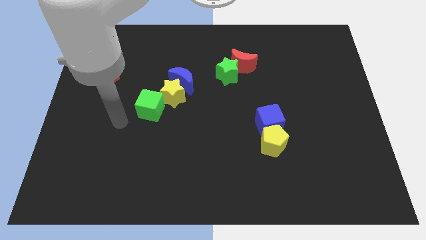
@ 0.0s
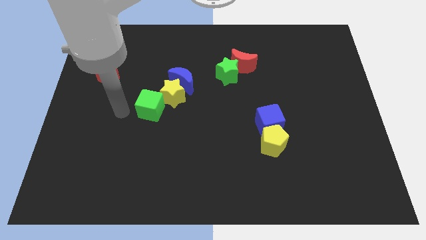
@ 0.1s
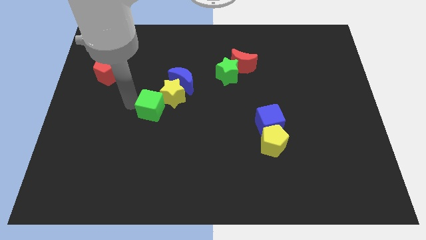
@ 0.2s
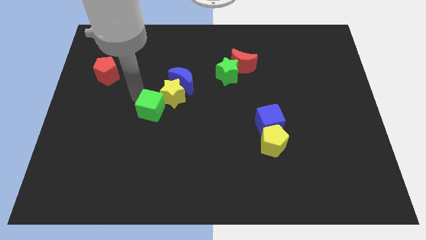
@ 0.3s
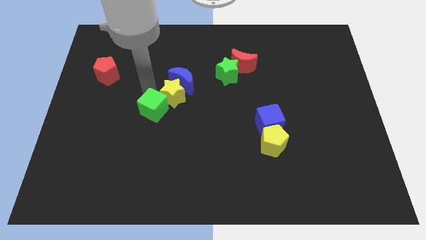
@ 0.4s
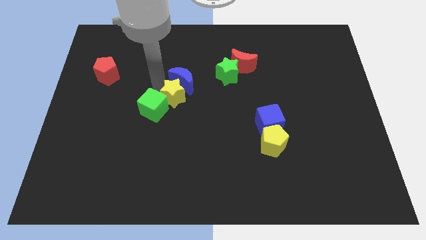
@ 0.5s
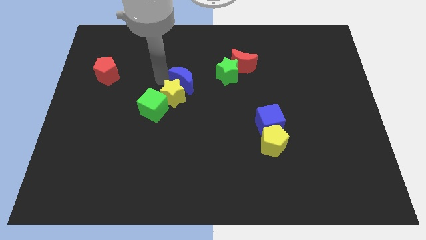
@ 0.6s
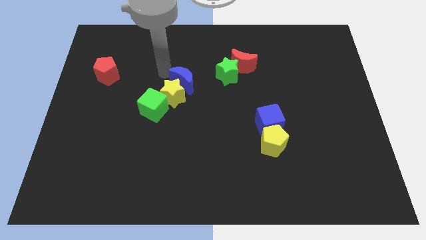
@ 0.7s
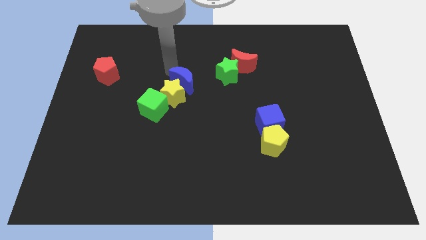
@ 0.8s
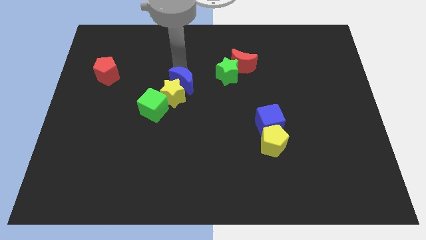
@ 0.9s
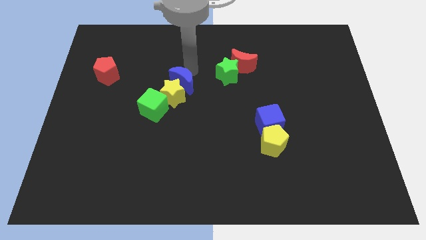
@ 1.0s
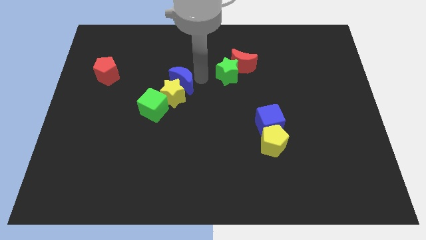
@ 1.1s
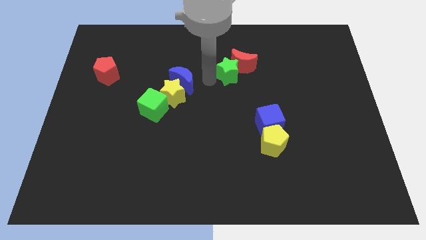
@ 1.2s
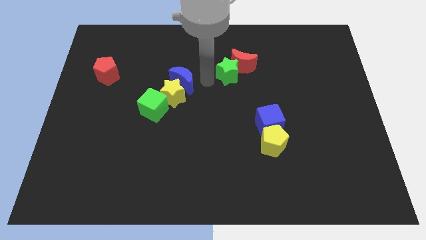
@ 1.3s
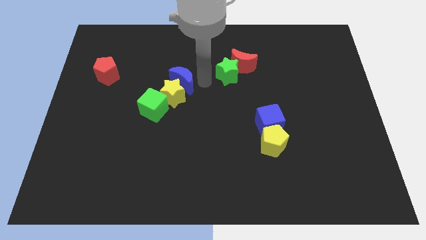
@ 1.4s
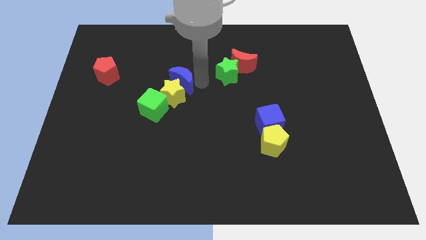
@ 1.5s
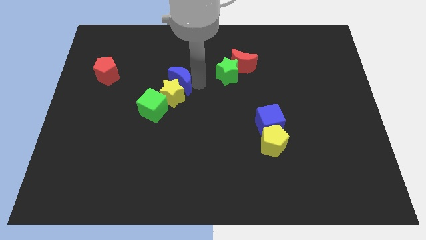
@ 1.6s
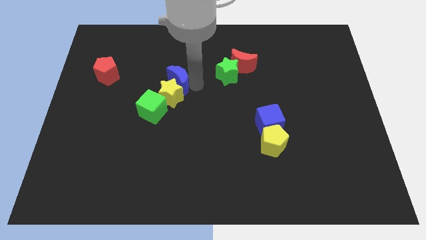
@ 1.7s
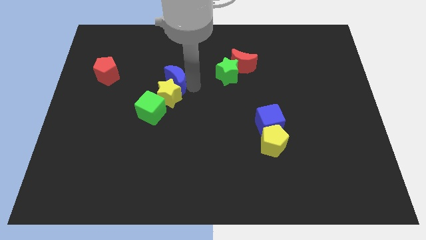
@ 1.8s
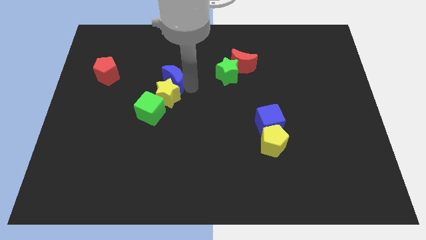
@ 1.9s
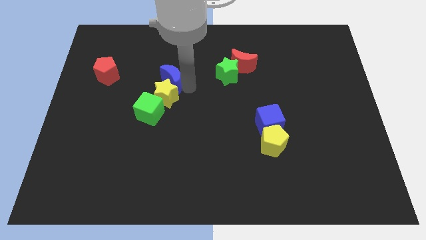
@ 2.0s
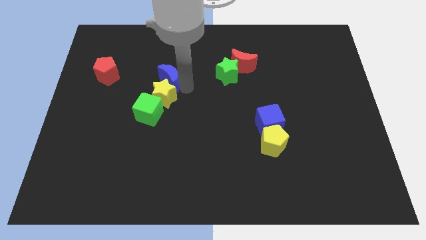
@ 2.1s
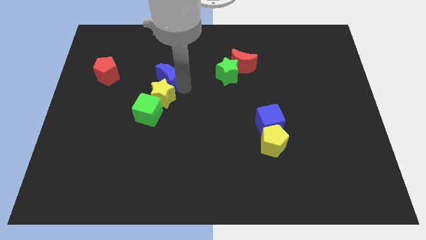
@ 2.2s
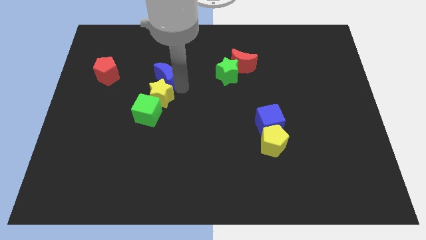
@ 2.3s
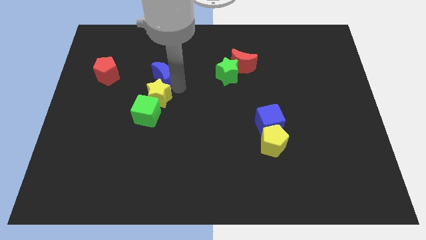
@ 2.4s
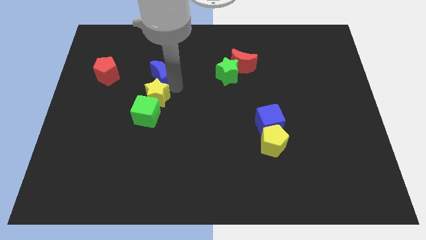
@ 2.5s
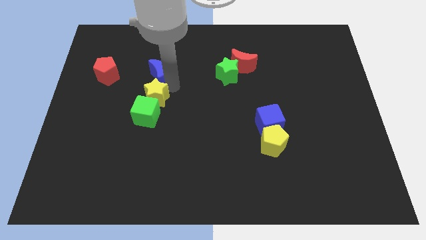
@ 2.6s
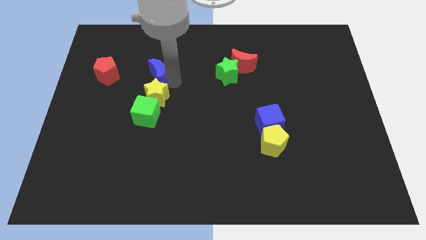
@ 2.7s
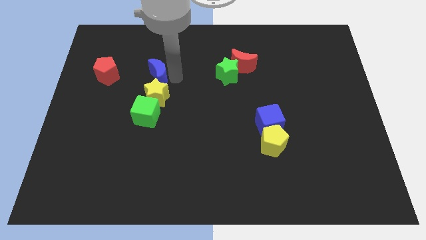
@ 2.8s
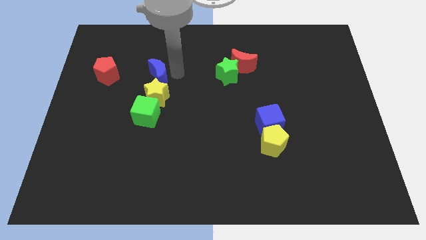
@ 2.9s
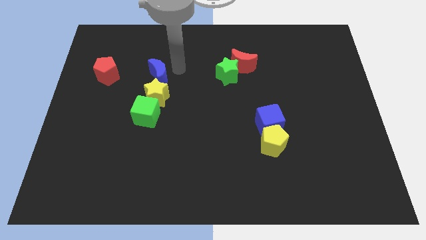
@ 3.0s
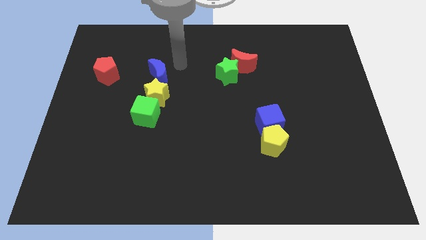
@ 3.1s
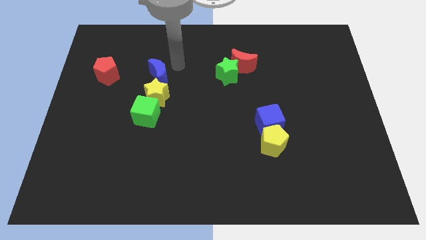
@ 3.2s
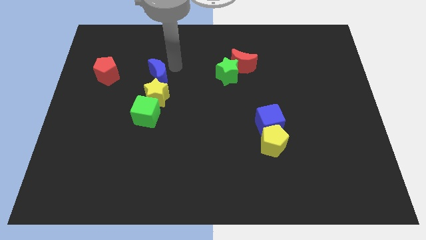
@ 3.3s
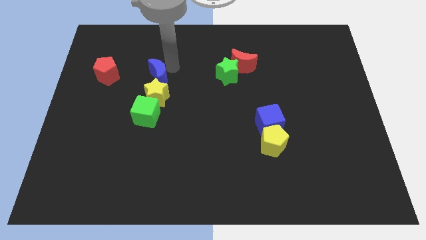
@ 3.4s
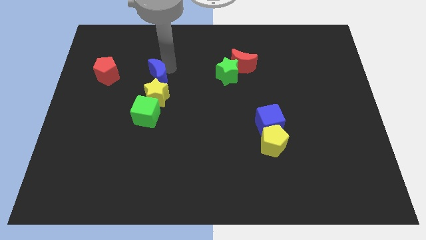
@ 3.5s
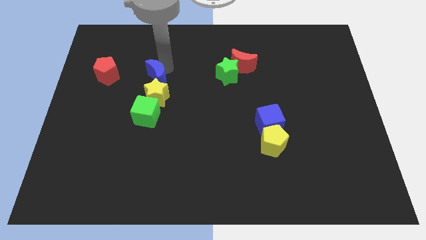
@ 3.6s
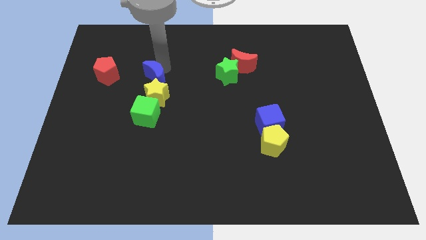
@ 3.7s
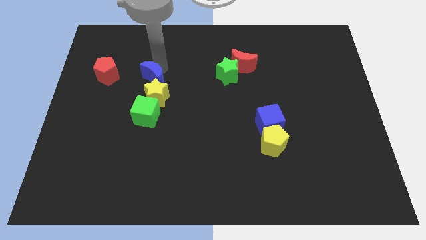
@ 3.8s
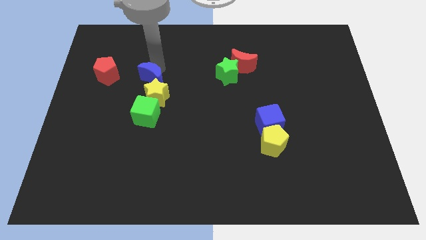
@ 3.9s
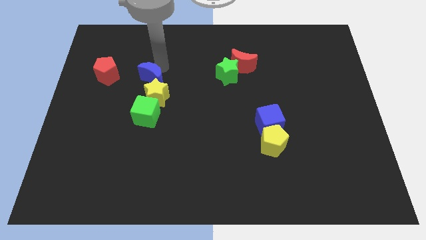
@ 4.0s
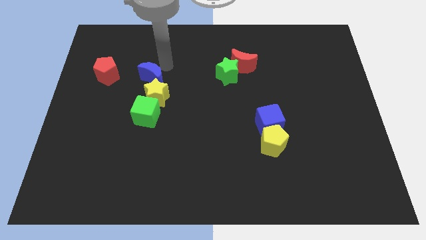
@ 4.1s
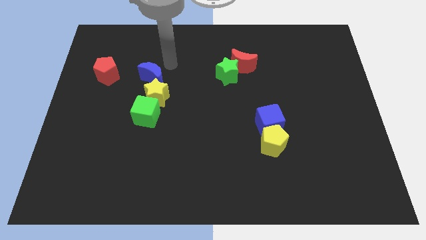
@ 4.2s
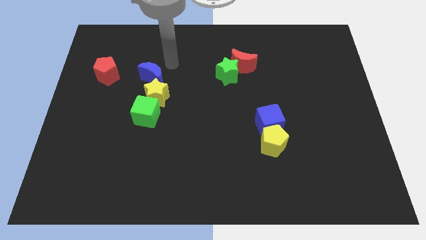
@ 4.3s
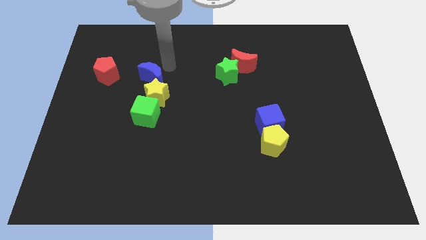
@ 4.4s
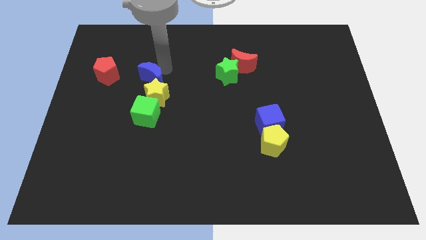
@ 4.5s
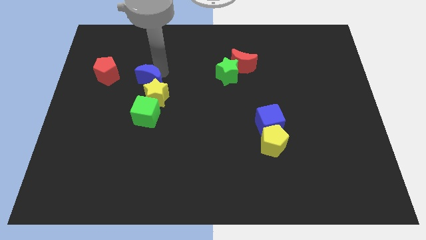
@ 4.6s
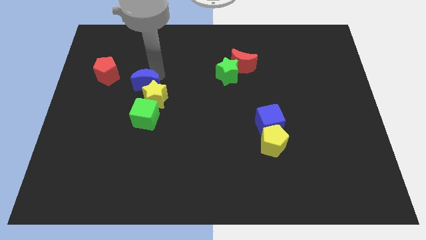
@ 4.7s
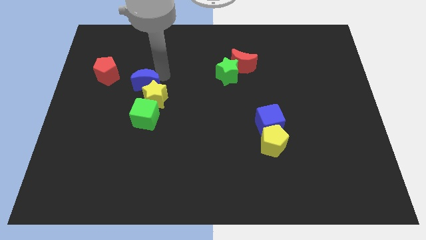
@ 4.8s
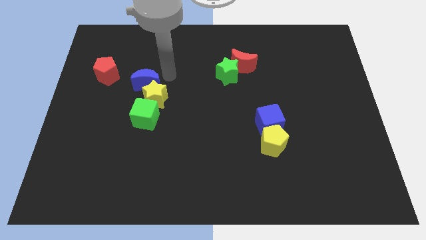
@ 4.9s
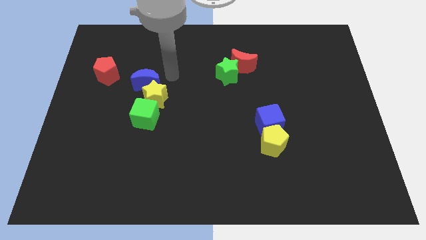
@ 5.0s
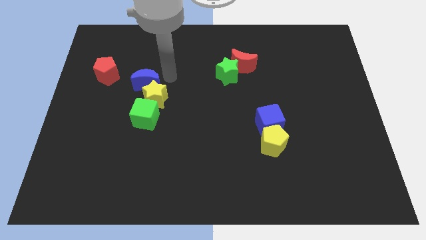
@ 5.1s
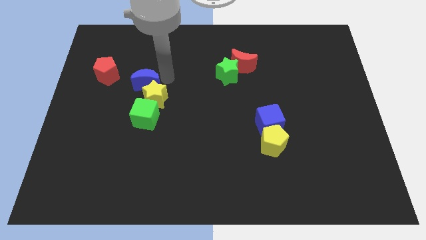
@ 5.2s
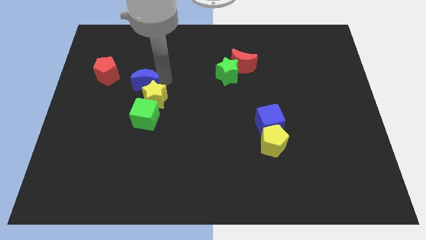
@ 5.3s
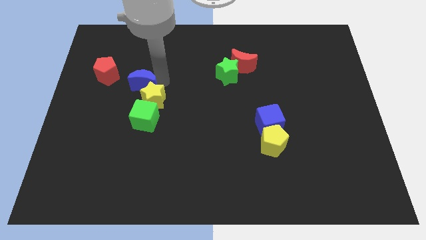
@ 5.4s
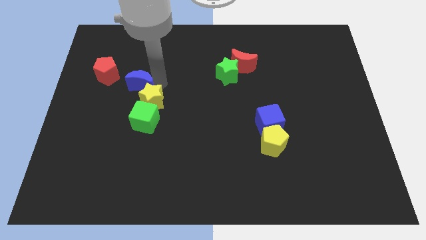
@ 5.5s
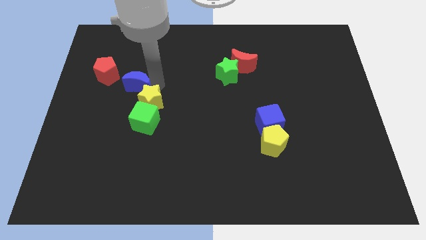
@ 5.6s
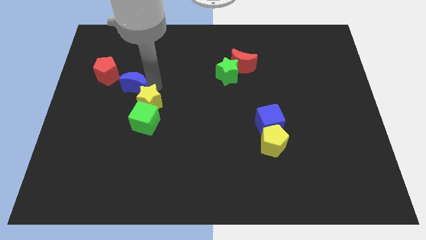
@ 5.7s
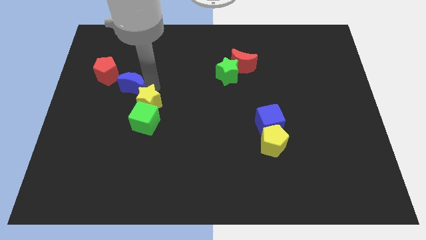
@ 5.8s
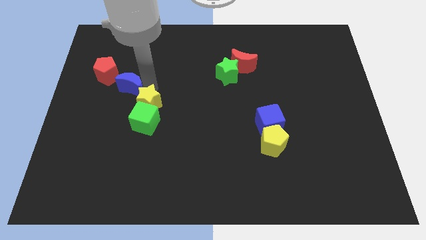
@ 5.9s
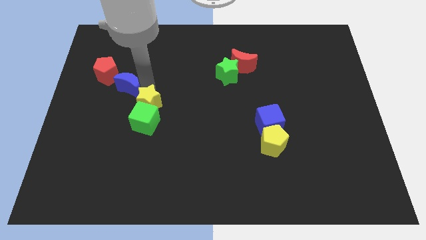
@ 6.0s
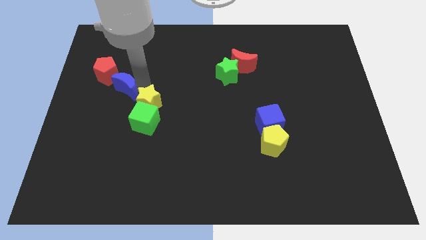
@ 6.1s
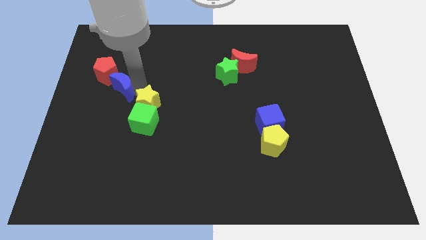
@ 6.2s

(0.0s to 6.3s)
push the blue moon below the red pentagon
